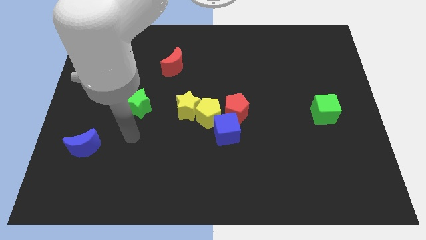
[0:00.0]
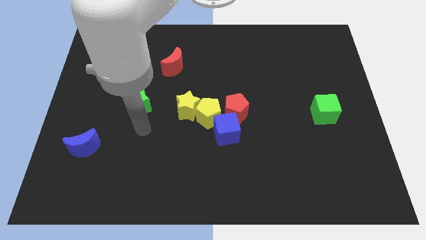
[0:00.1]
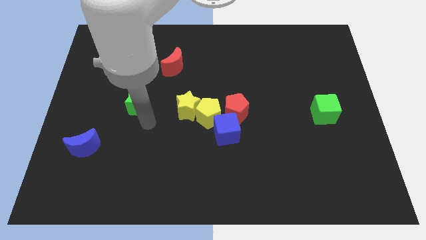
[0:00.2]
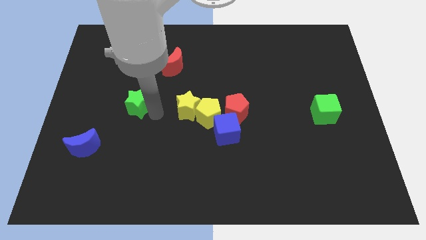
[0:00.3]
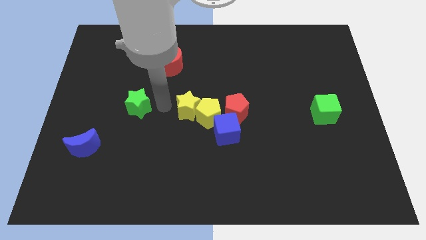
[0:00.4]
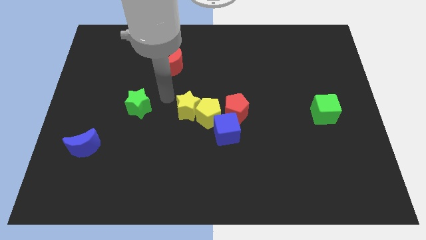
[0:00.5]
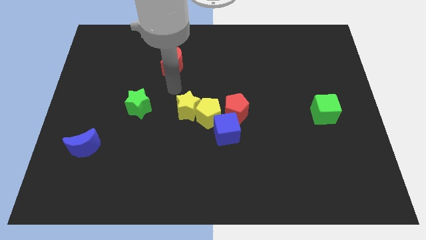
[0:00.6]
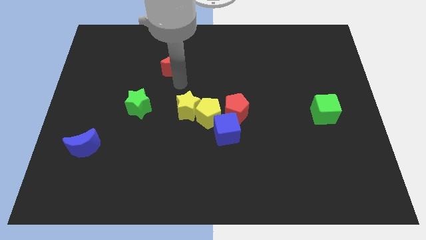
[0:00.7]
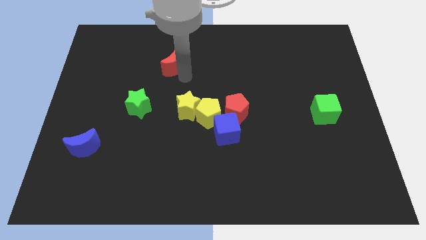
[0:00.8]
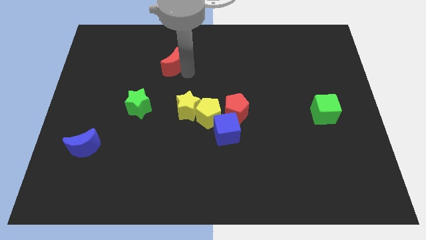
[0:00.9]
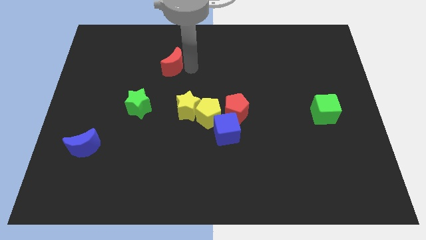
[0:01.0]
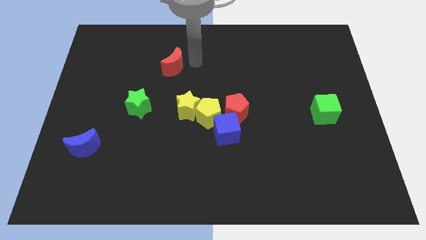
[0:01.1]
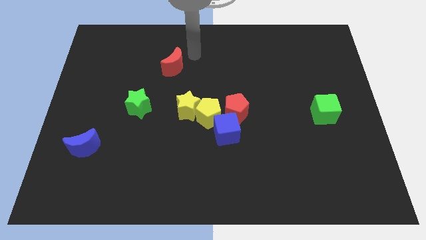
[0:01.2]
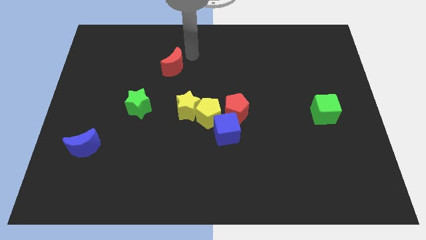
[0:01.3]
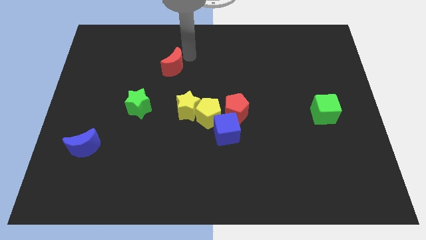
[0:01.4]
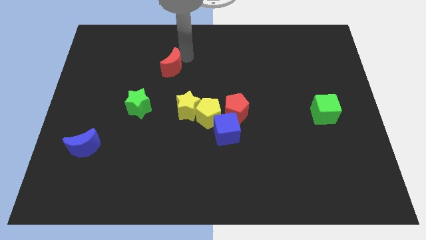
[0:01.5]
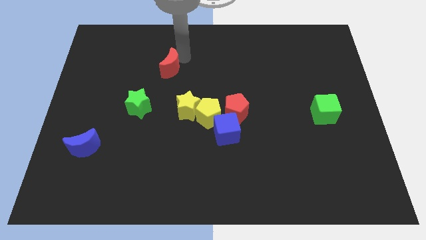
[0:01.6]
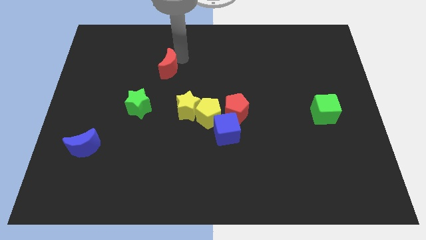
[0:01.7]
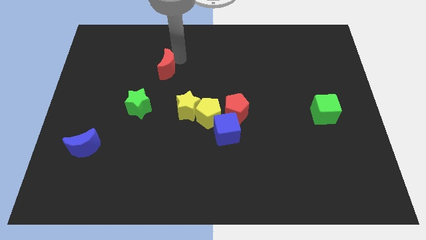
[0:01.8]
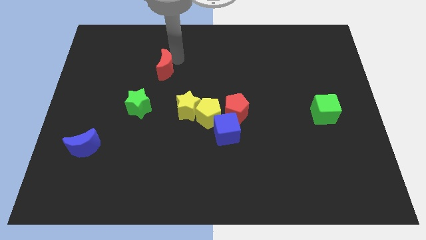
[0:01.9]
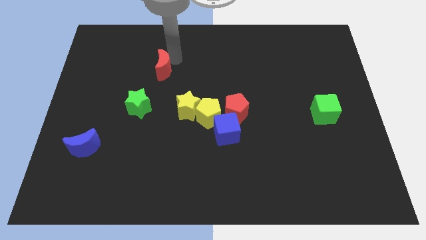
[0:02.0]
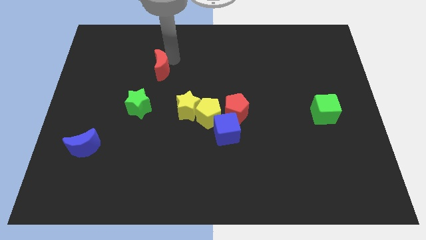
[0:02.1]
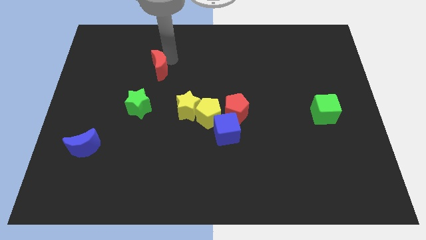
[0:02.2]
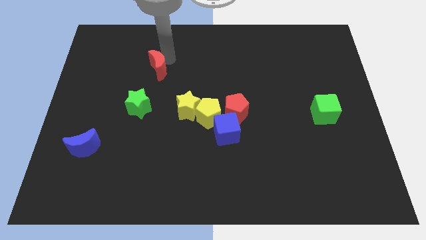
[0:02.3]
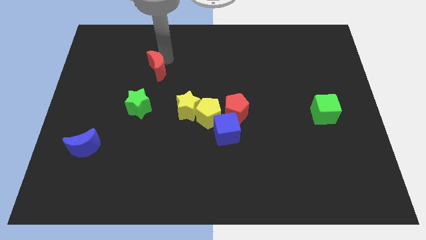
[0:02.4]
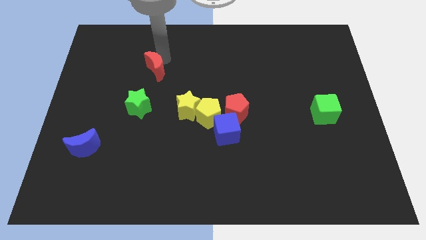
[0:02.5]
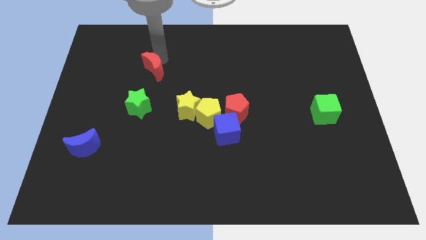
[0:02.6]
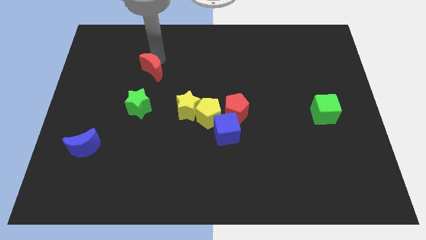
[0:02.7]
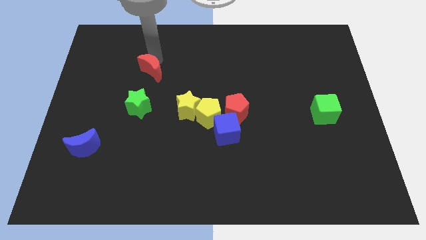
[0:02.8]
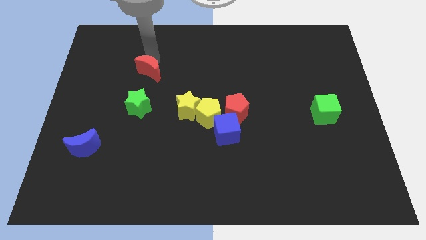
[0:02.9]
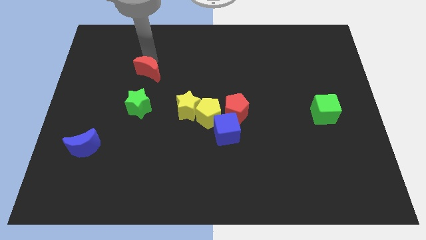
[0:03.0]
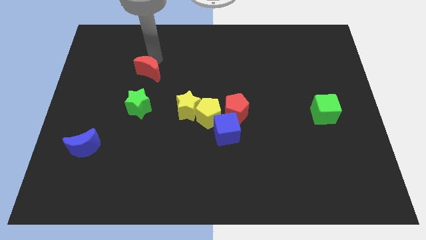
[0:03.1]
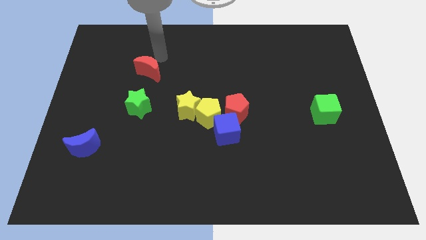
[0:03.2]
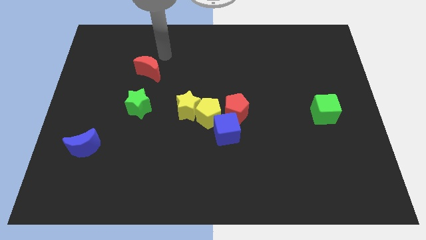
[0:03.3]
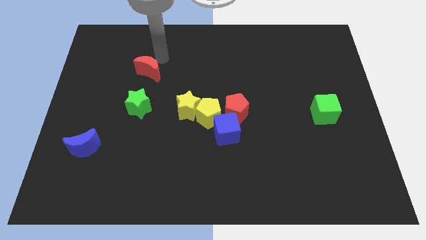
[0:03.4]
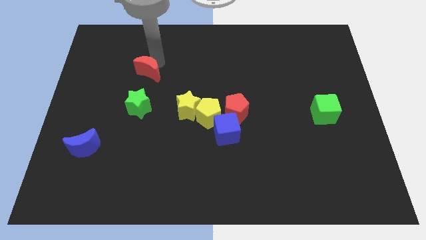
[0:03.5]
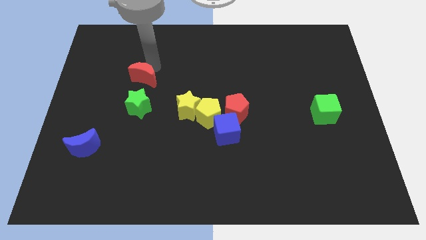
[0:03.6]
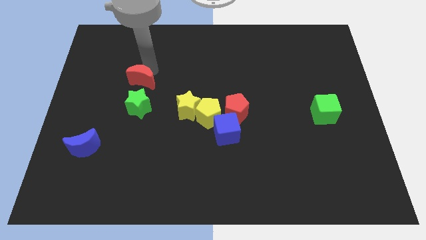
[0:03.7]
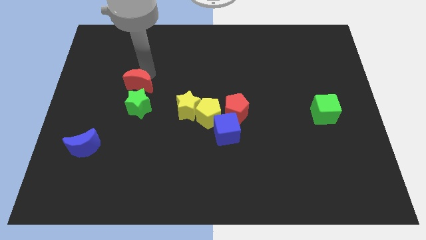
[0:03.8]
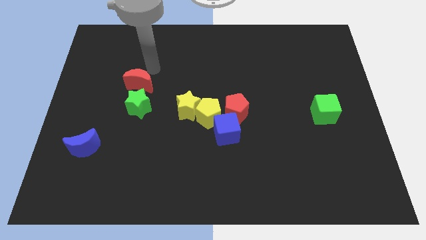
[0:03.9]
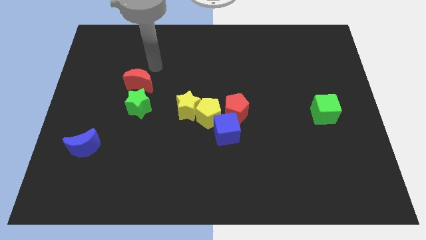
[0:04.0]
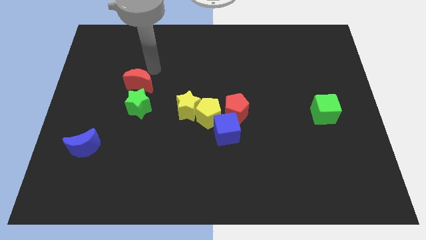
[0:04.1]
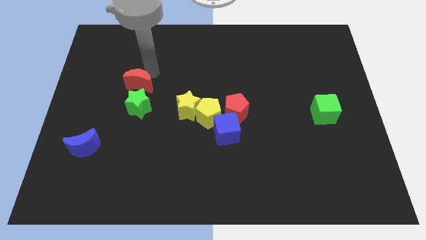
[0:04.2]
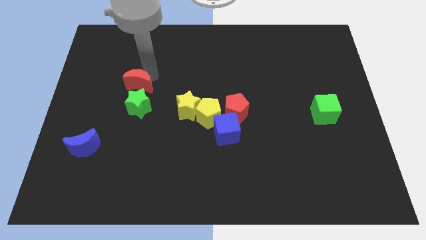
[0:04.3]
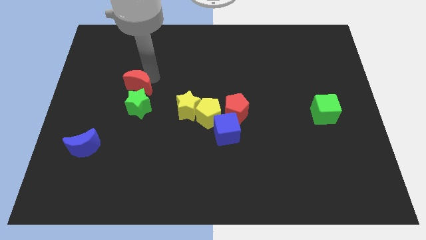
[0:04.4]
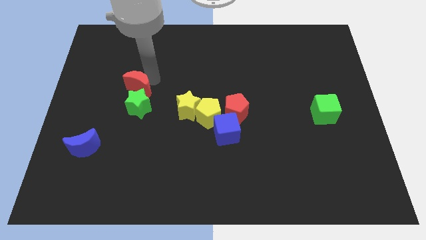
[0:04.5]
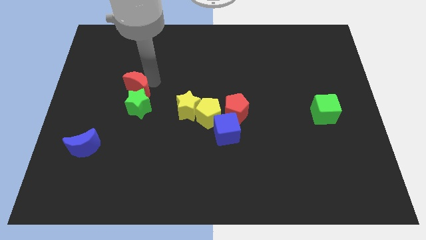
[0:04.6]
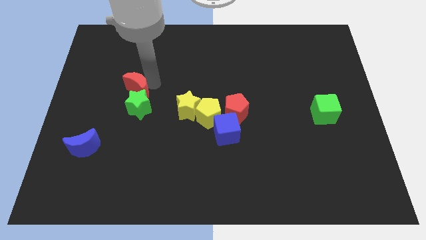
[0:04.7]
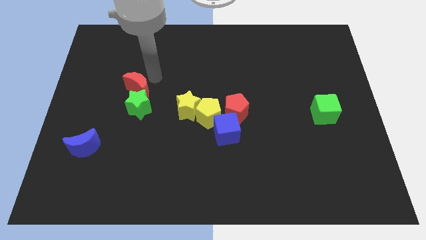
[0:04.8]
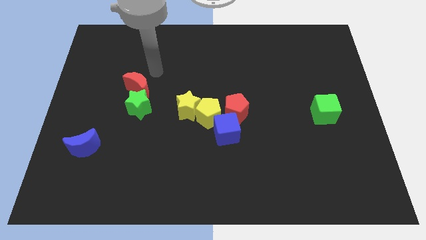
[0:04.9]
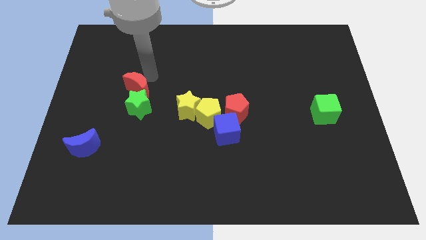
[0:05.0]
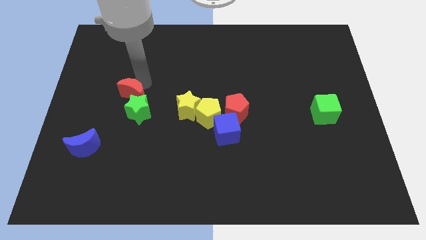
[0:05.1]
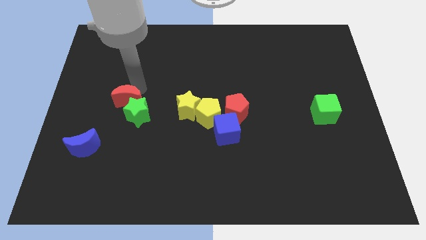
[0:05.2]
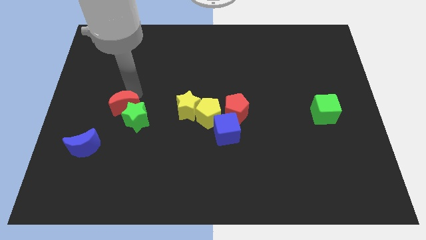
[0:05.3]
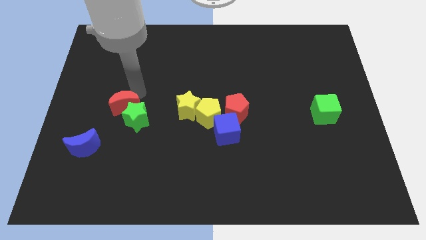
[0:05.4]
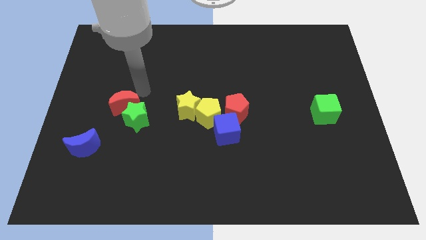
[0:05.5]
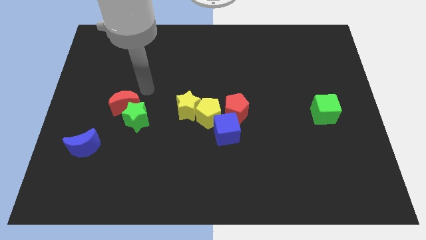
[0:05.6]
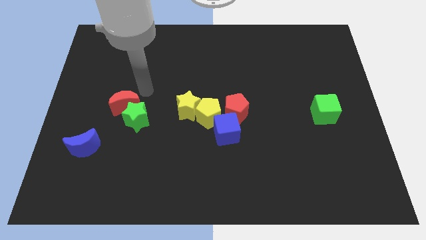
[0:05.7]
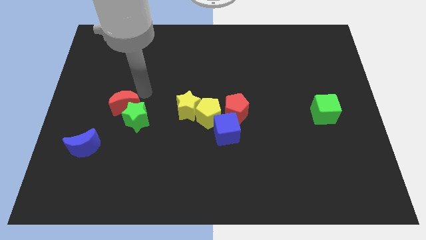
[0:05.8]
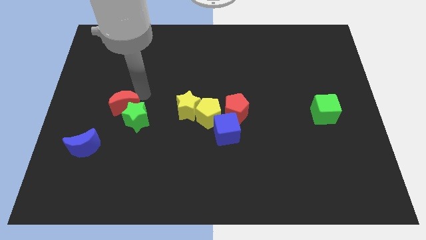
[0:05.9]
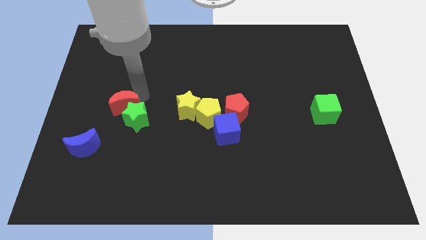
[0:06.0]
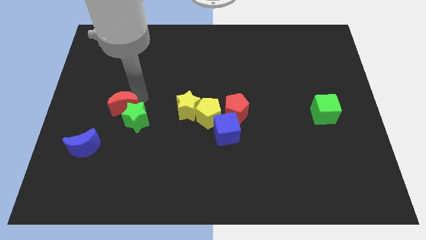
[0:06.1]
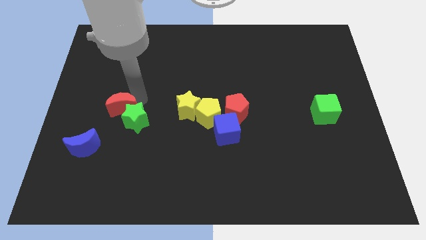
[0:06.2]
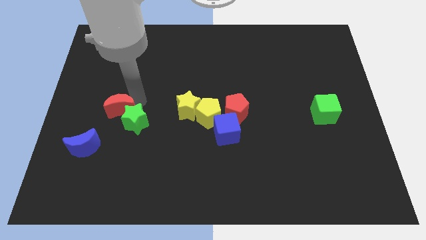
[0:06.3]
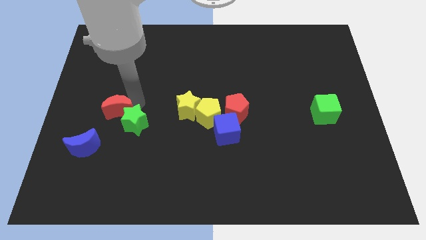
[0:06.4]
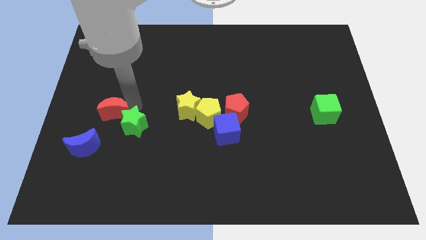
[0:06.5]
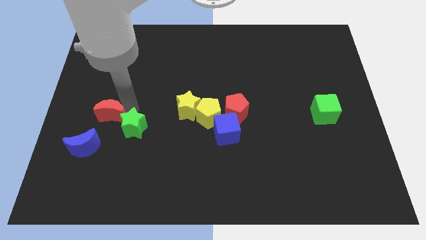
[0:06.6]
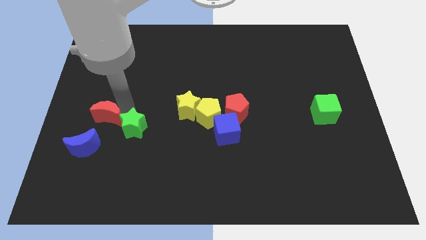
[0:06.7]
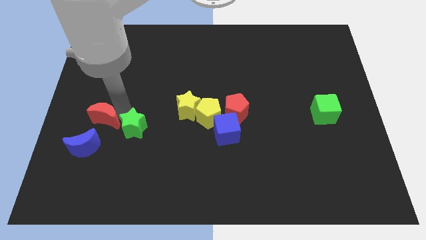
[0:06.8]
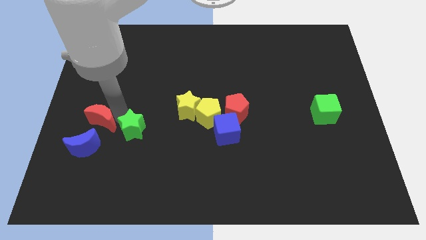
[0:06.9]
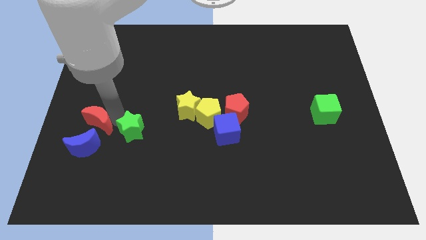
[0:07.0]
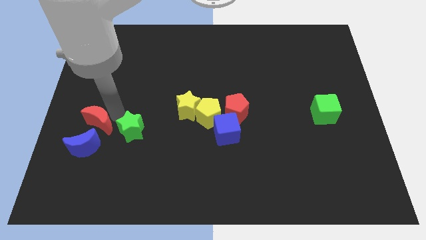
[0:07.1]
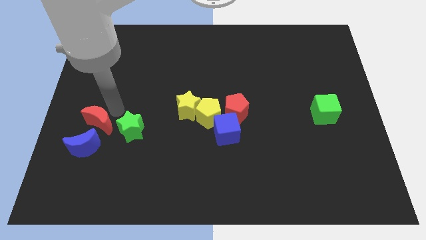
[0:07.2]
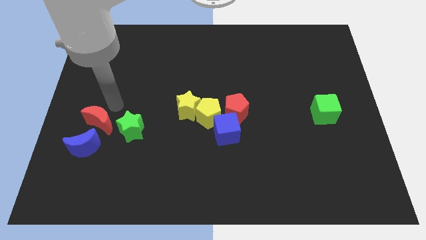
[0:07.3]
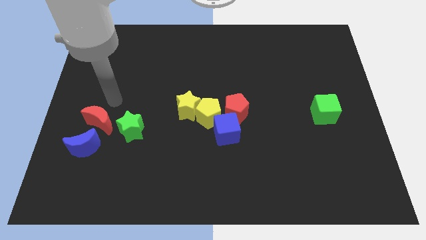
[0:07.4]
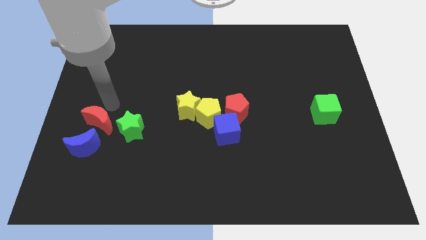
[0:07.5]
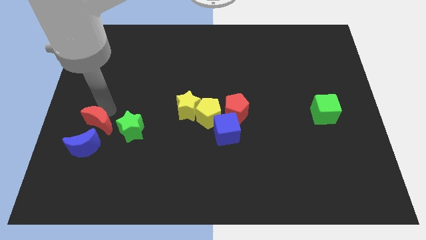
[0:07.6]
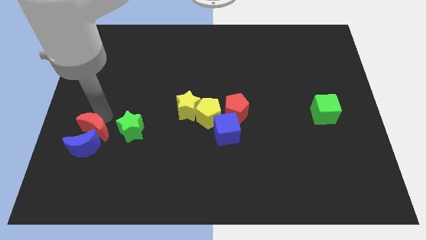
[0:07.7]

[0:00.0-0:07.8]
push the red moon towards the blue moon
